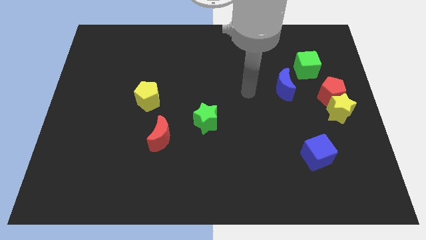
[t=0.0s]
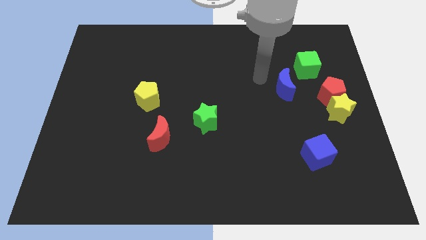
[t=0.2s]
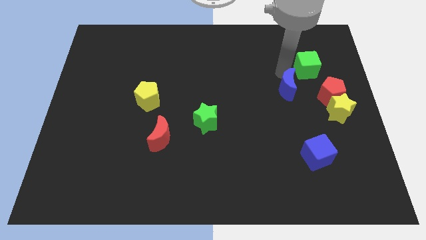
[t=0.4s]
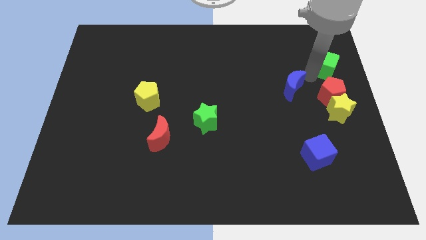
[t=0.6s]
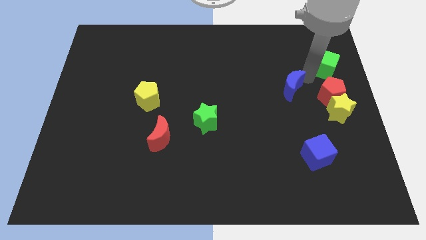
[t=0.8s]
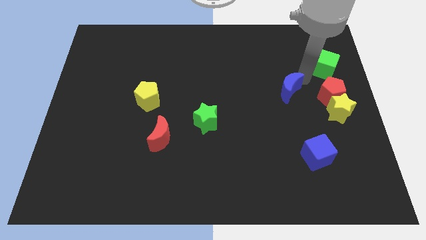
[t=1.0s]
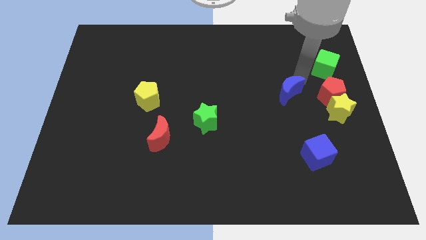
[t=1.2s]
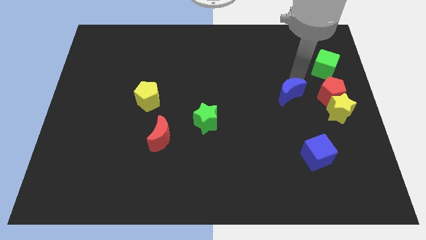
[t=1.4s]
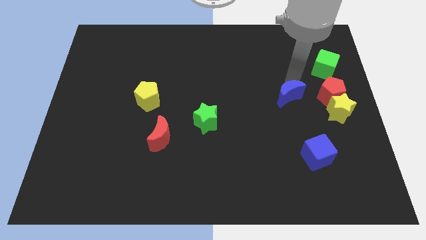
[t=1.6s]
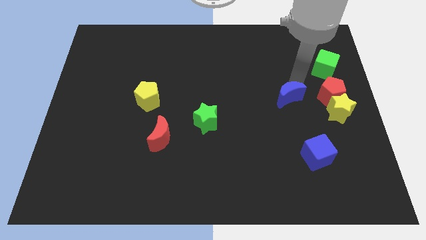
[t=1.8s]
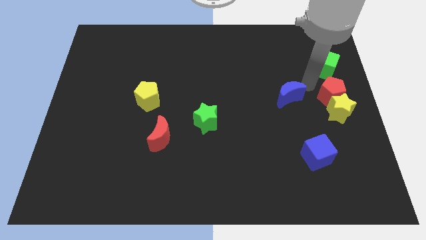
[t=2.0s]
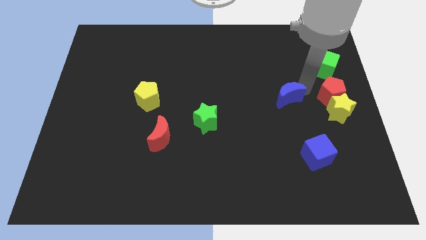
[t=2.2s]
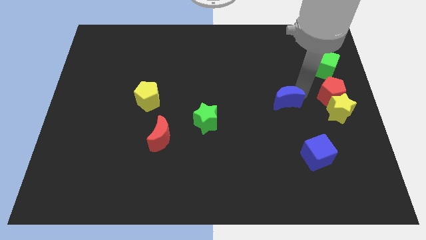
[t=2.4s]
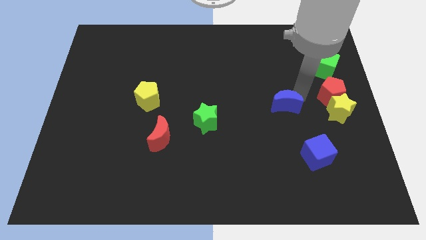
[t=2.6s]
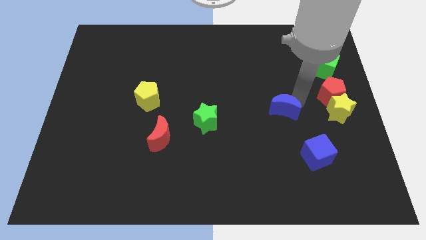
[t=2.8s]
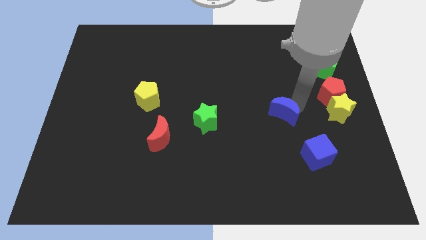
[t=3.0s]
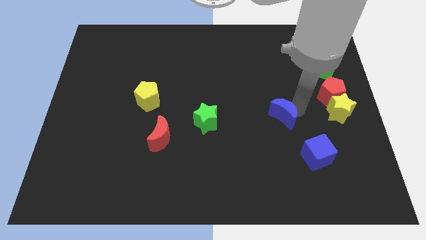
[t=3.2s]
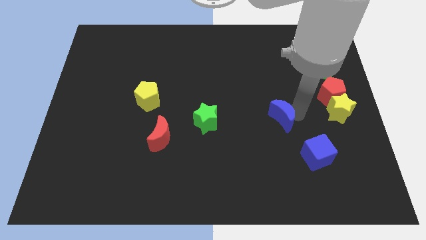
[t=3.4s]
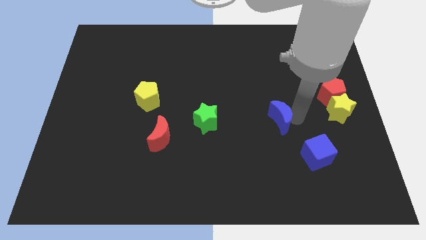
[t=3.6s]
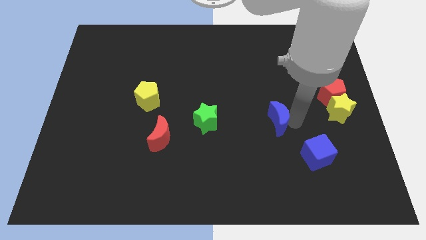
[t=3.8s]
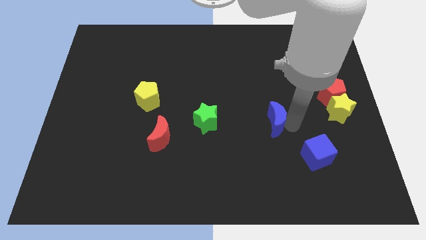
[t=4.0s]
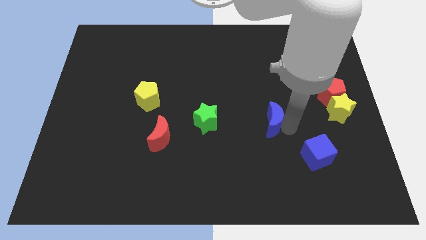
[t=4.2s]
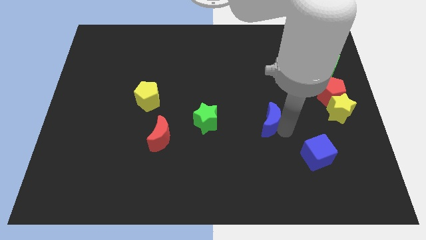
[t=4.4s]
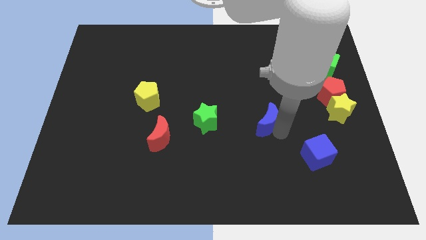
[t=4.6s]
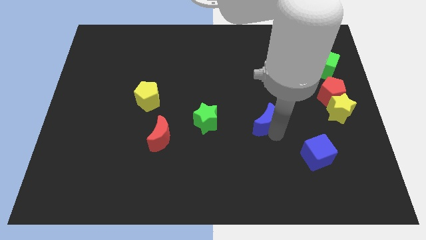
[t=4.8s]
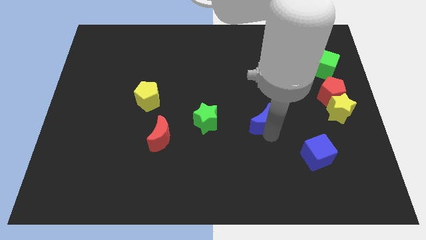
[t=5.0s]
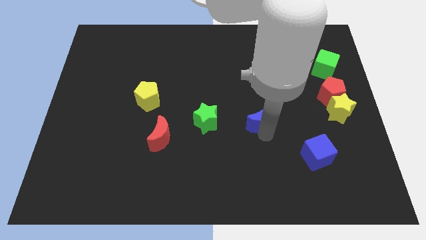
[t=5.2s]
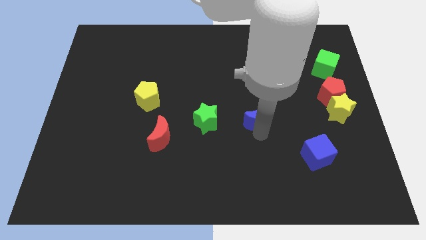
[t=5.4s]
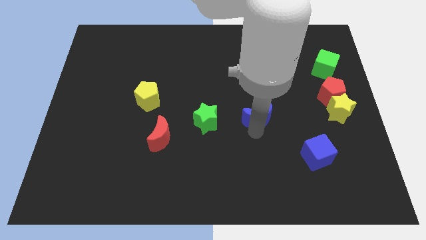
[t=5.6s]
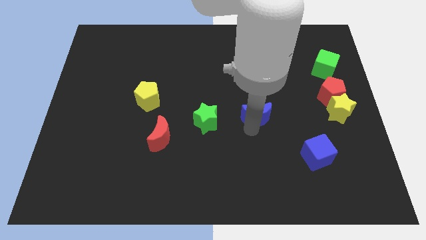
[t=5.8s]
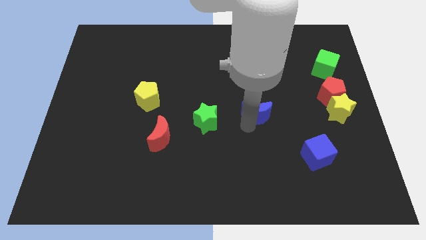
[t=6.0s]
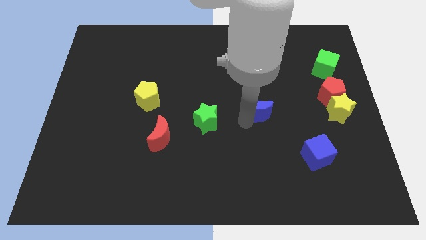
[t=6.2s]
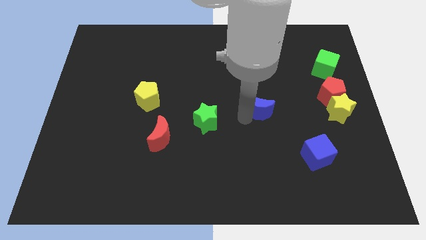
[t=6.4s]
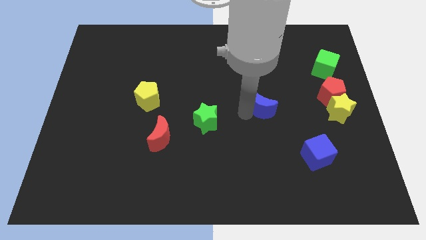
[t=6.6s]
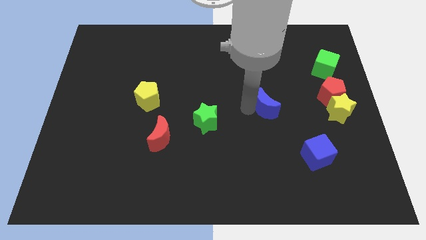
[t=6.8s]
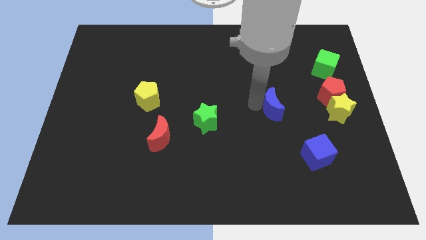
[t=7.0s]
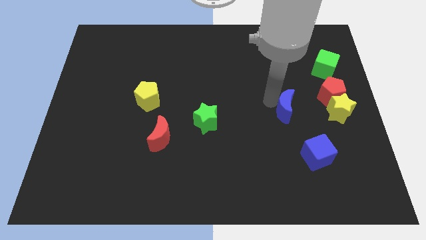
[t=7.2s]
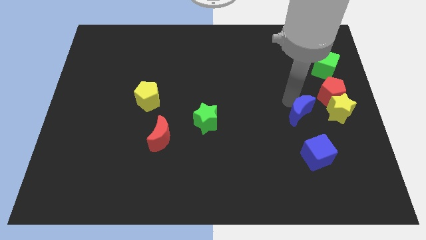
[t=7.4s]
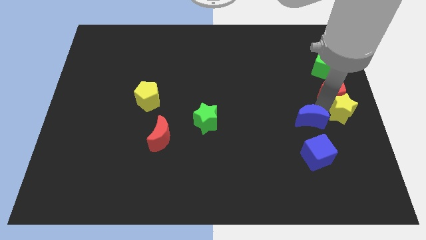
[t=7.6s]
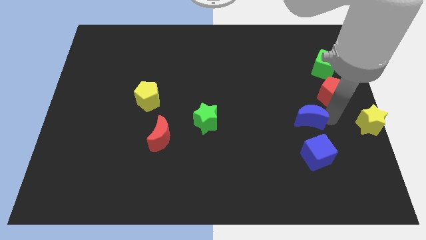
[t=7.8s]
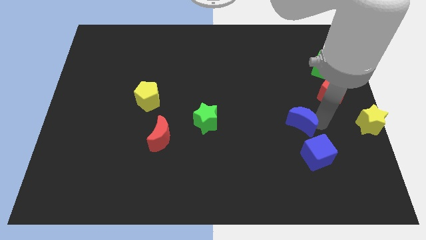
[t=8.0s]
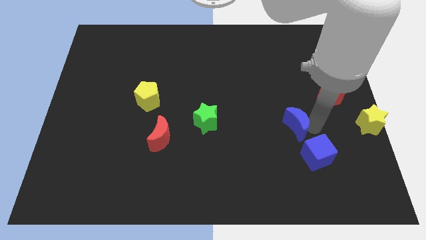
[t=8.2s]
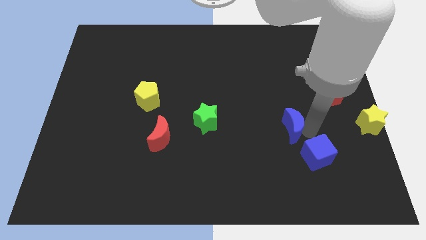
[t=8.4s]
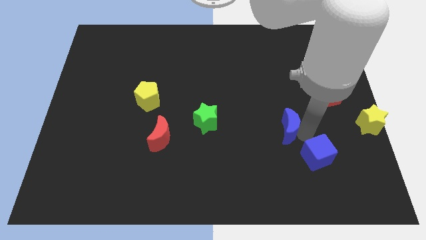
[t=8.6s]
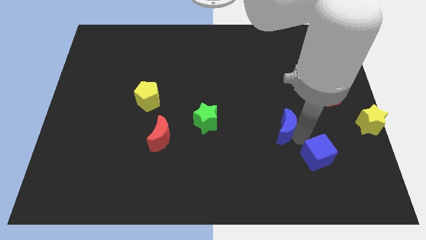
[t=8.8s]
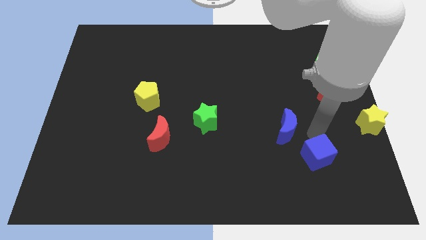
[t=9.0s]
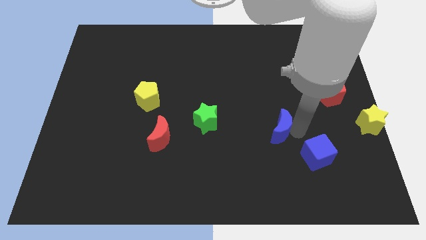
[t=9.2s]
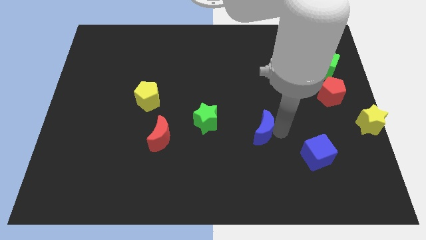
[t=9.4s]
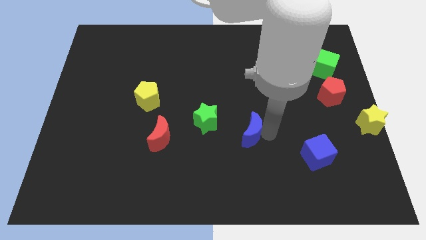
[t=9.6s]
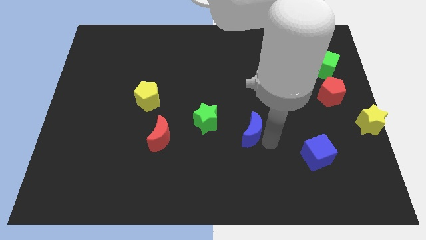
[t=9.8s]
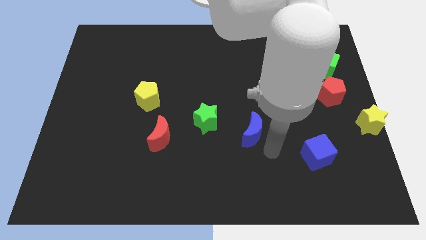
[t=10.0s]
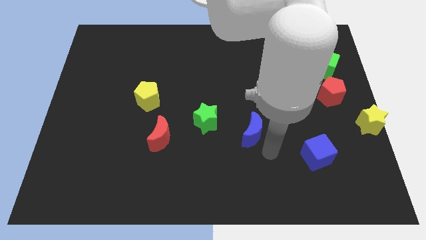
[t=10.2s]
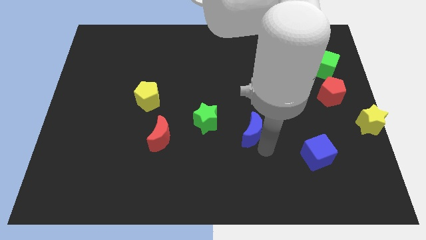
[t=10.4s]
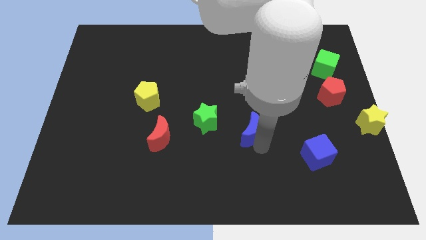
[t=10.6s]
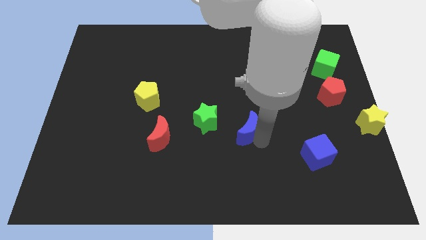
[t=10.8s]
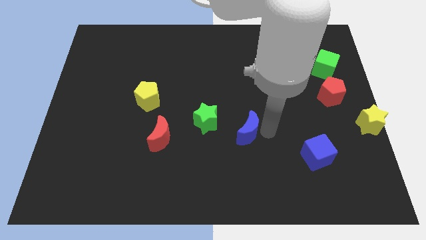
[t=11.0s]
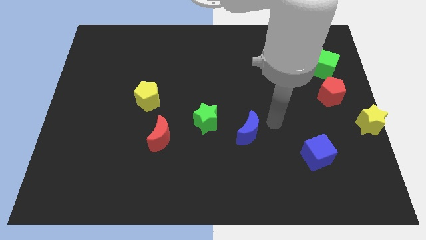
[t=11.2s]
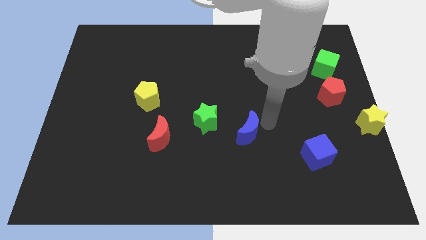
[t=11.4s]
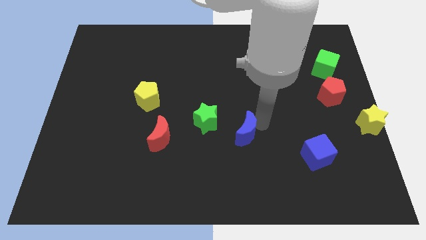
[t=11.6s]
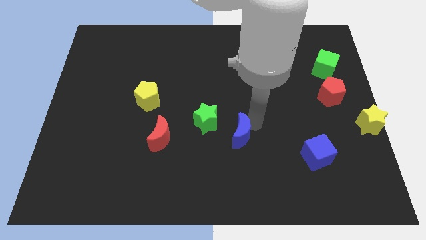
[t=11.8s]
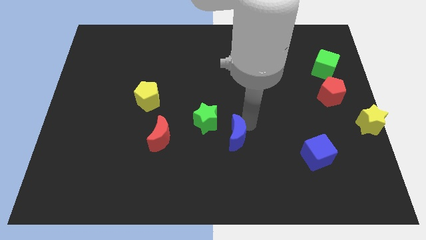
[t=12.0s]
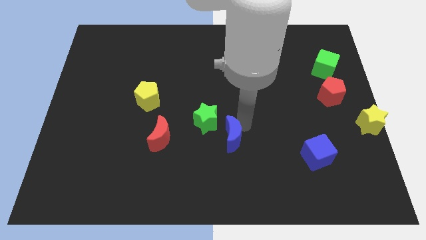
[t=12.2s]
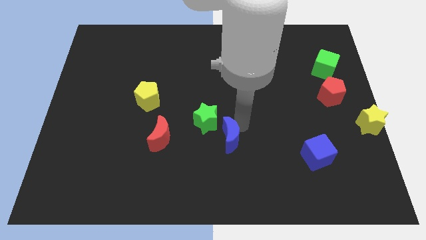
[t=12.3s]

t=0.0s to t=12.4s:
push the blue moon diagonally downwards and to the left

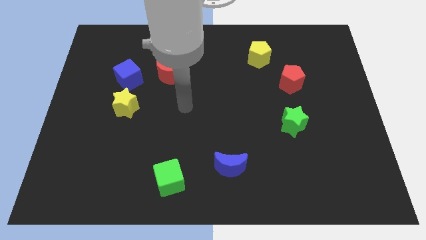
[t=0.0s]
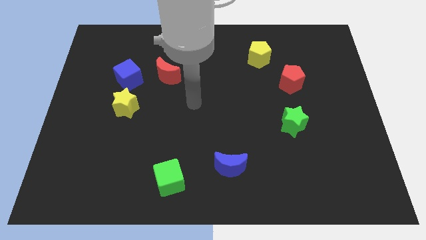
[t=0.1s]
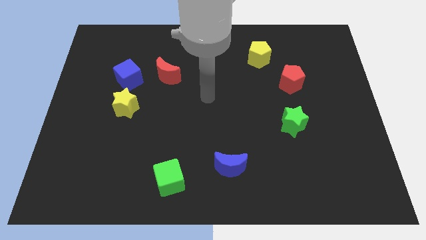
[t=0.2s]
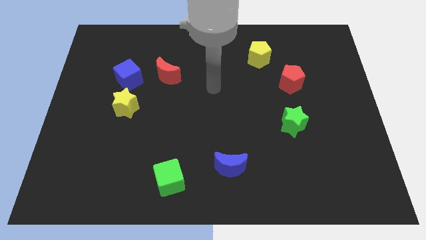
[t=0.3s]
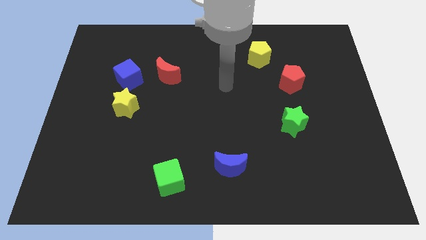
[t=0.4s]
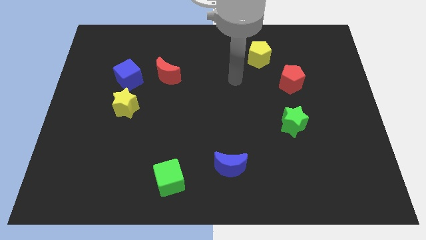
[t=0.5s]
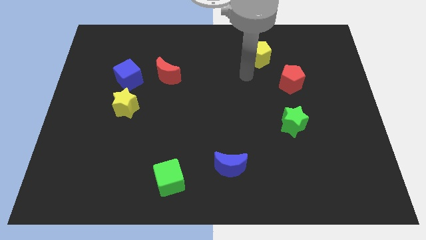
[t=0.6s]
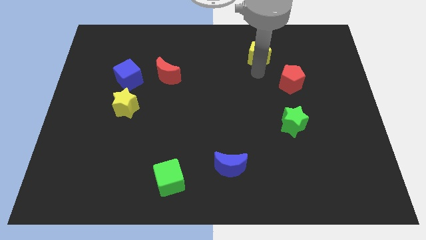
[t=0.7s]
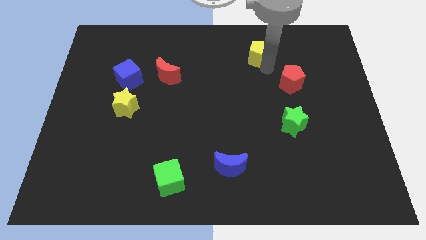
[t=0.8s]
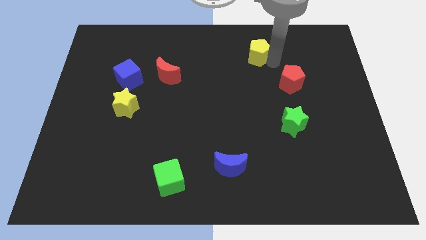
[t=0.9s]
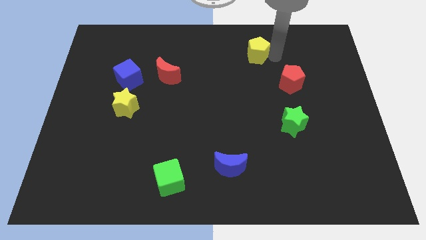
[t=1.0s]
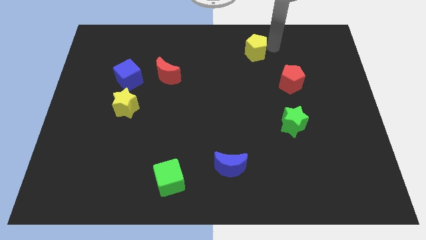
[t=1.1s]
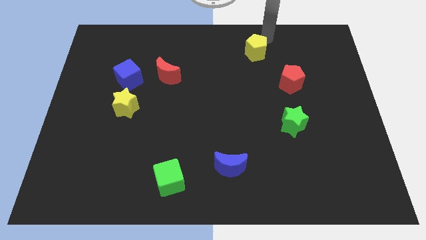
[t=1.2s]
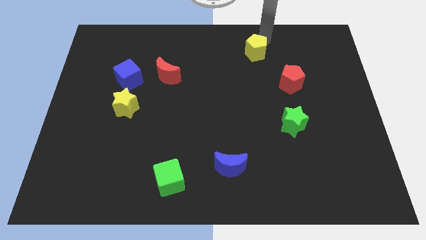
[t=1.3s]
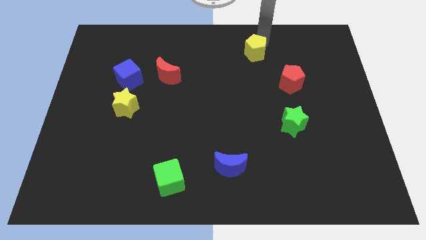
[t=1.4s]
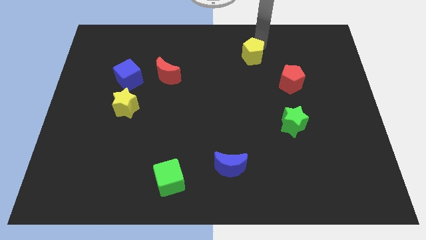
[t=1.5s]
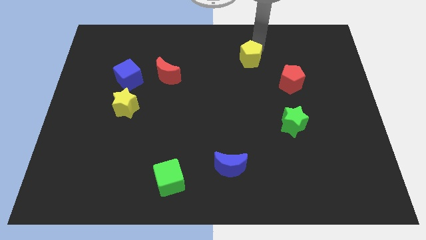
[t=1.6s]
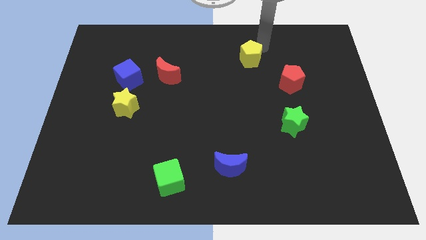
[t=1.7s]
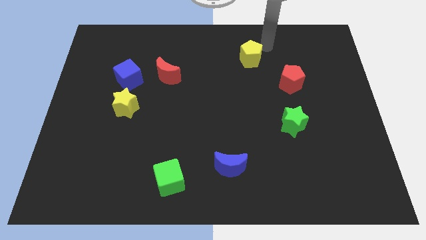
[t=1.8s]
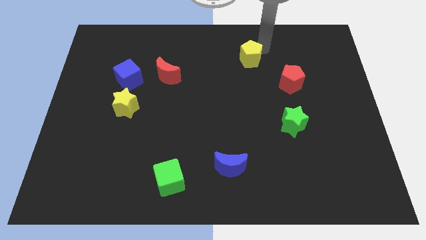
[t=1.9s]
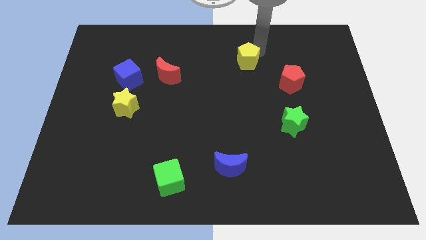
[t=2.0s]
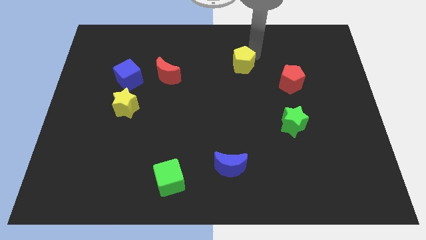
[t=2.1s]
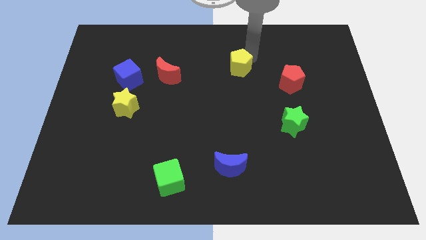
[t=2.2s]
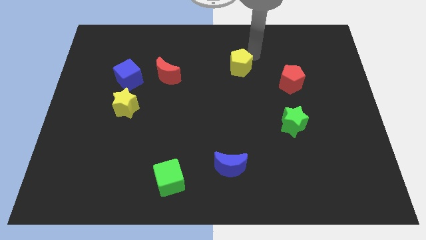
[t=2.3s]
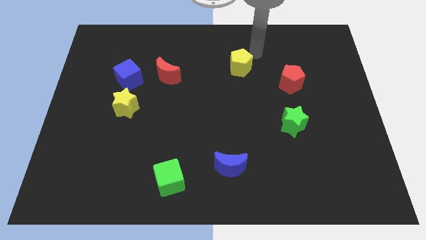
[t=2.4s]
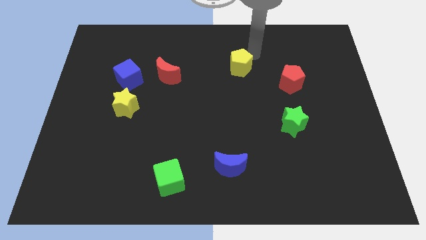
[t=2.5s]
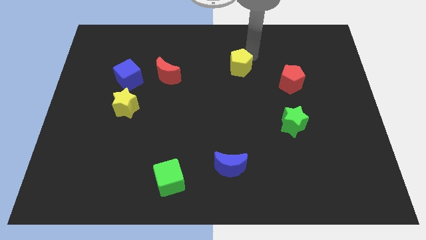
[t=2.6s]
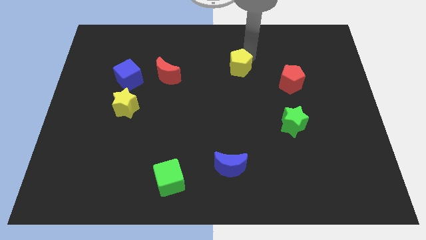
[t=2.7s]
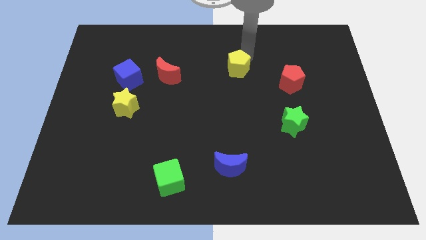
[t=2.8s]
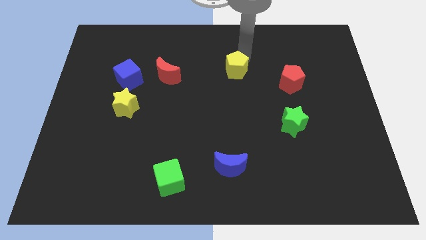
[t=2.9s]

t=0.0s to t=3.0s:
push the yellow pentagon down and to the left diagonally a bit
